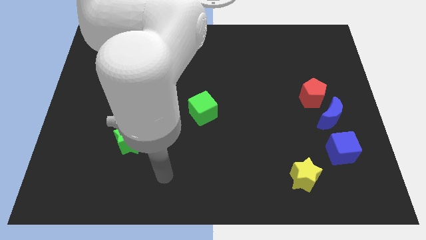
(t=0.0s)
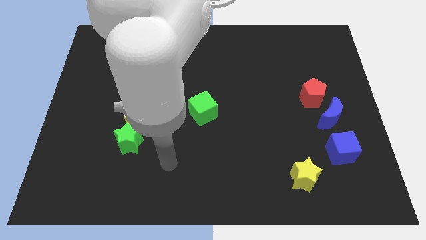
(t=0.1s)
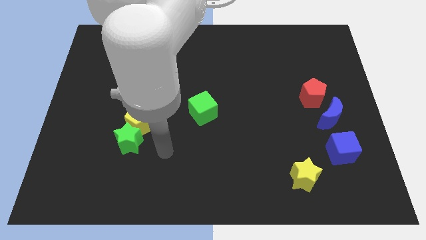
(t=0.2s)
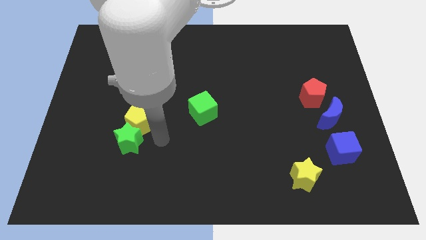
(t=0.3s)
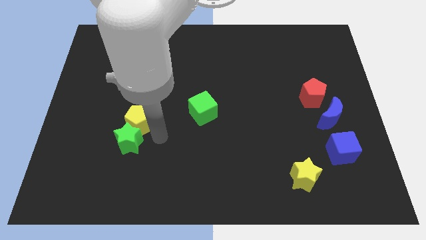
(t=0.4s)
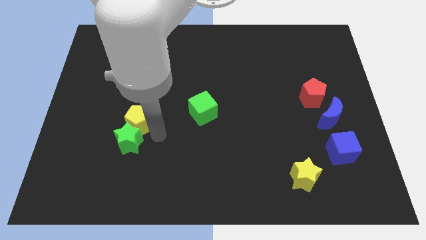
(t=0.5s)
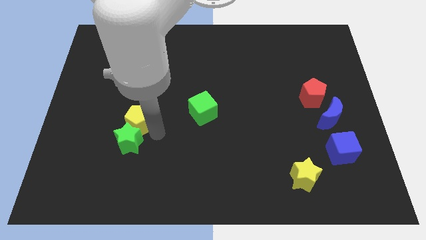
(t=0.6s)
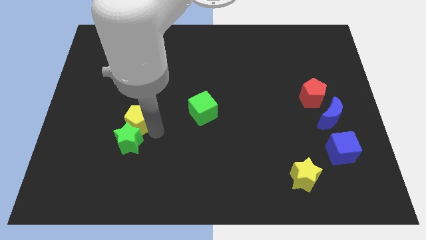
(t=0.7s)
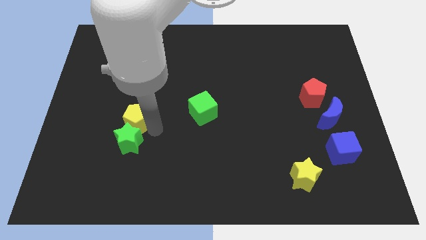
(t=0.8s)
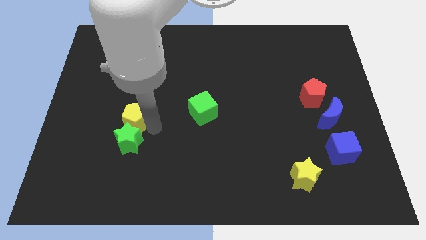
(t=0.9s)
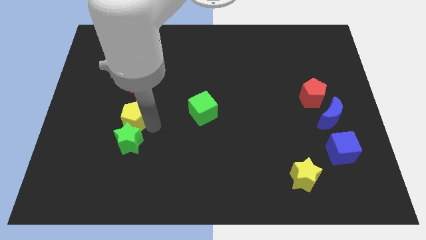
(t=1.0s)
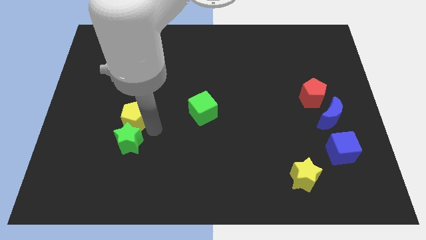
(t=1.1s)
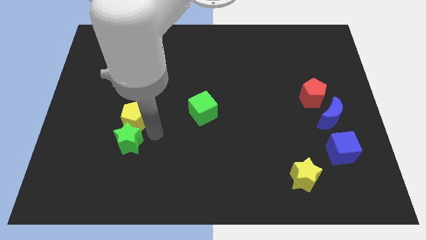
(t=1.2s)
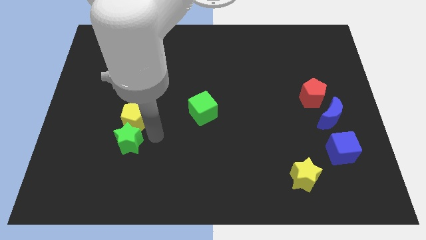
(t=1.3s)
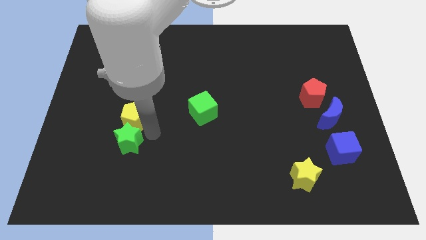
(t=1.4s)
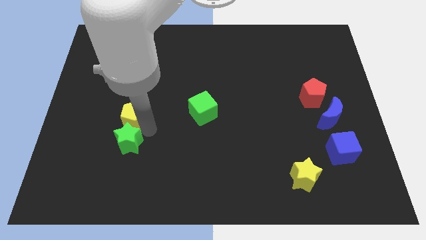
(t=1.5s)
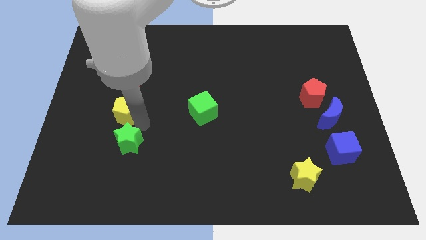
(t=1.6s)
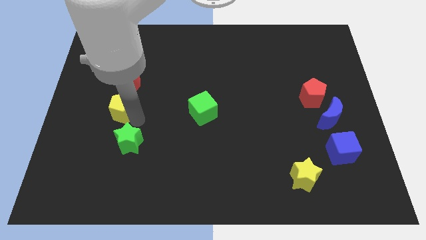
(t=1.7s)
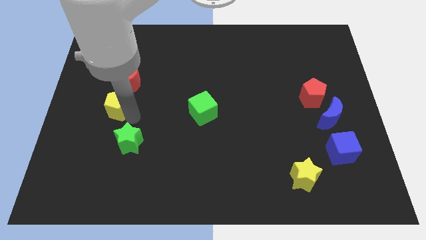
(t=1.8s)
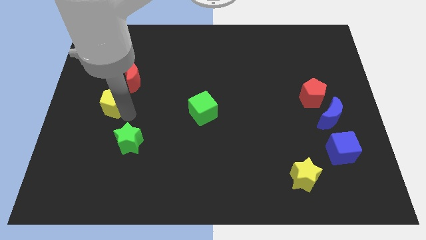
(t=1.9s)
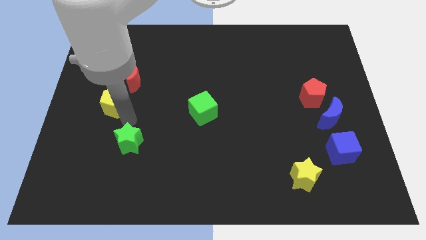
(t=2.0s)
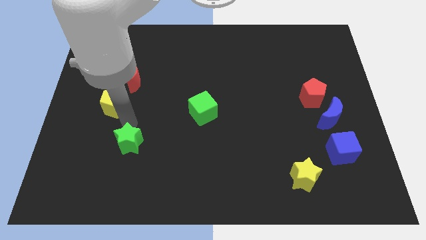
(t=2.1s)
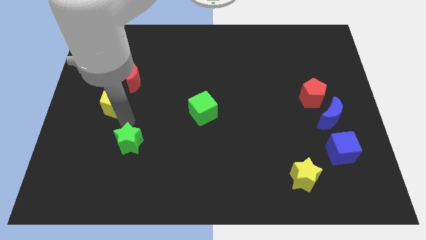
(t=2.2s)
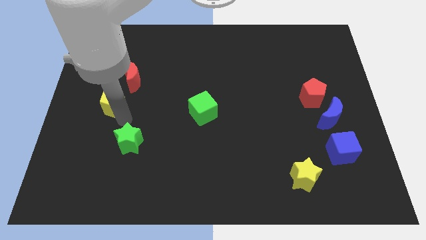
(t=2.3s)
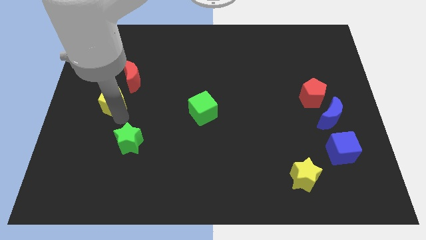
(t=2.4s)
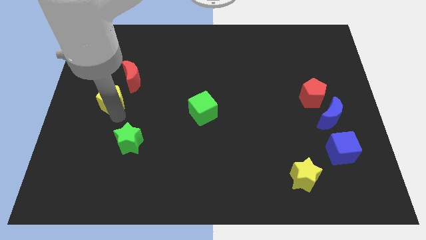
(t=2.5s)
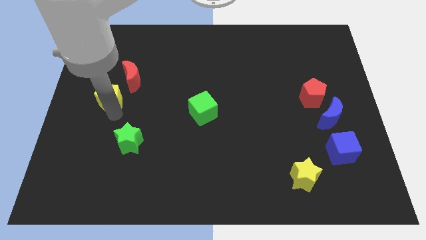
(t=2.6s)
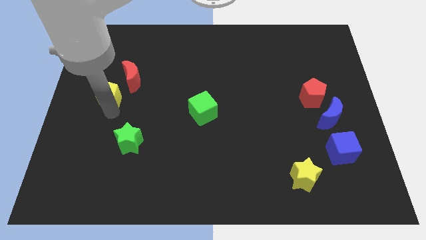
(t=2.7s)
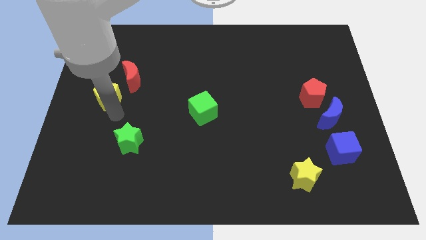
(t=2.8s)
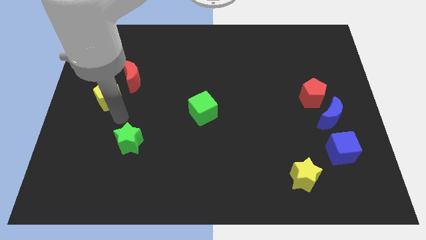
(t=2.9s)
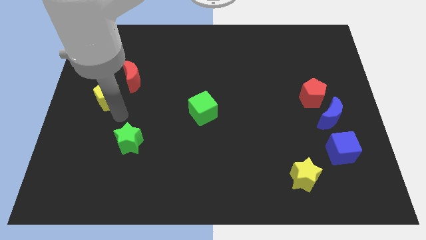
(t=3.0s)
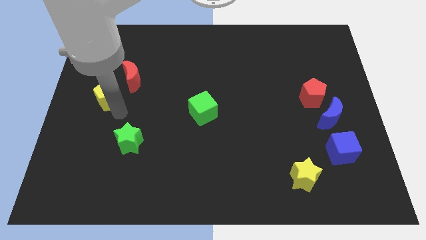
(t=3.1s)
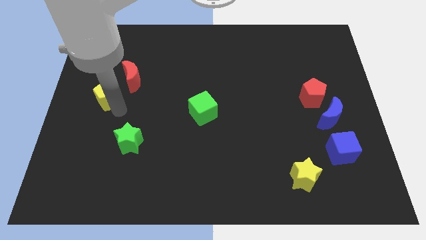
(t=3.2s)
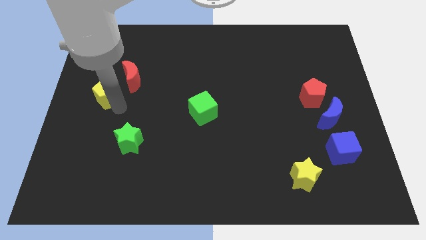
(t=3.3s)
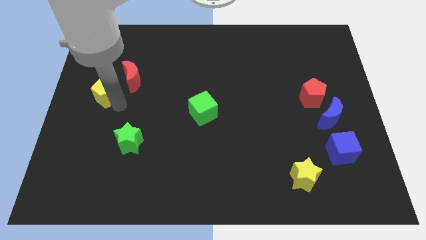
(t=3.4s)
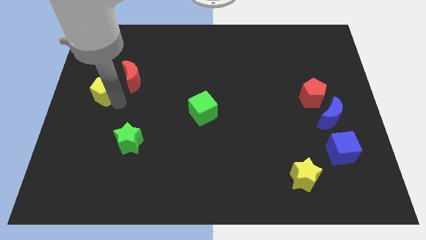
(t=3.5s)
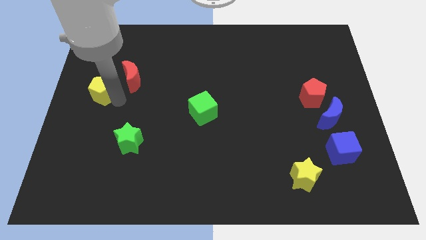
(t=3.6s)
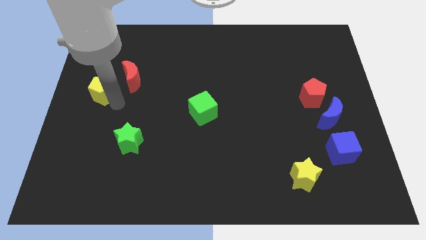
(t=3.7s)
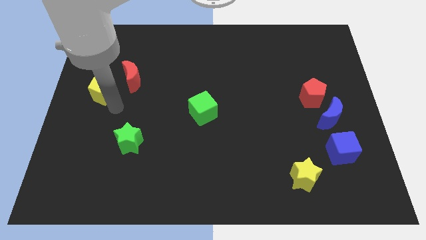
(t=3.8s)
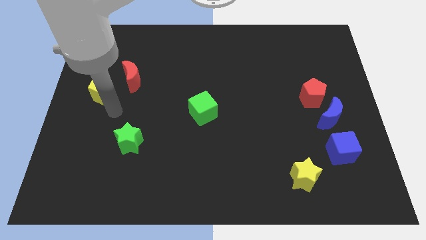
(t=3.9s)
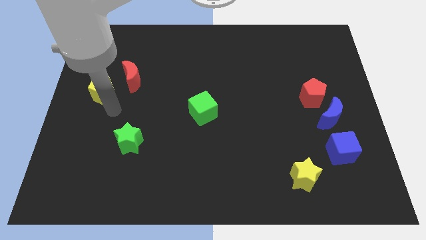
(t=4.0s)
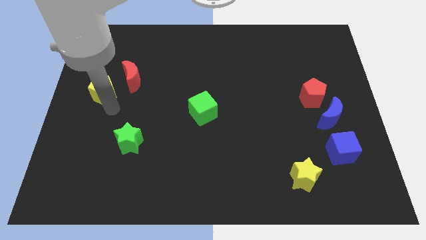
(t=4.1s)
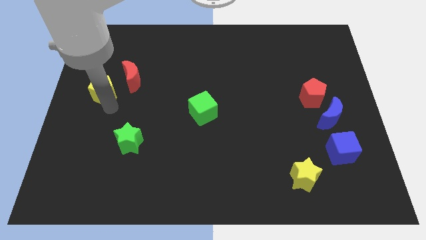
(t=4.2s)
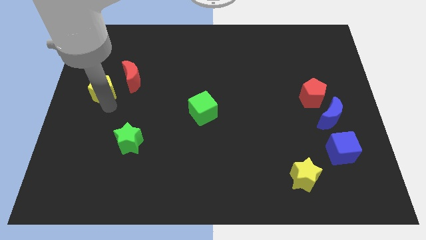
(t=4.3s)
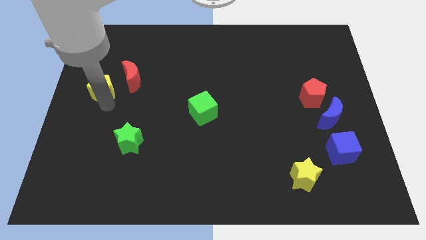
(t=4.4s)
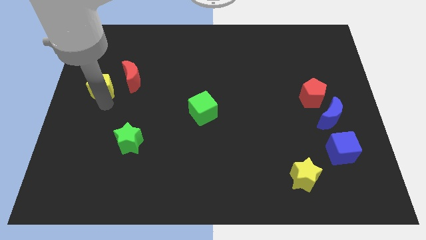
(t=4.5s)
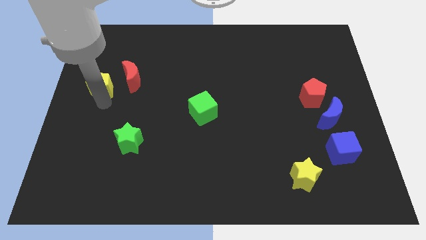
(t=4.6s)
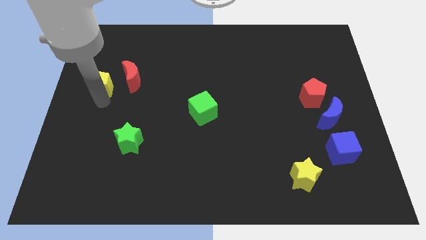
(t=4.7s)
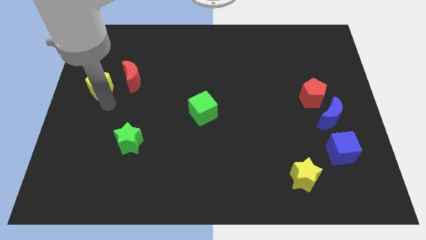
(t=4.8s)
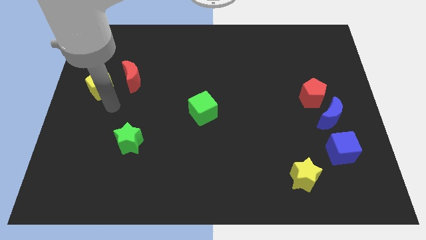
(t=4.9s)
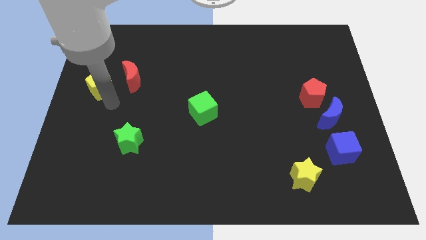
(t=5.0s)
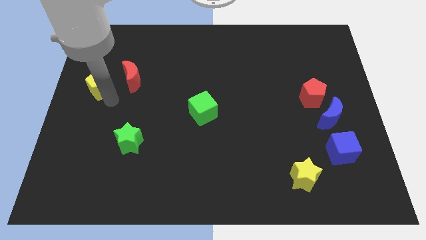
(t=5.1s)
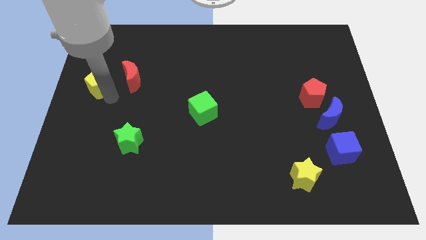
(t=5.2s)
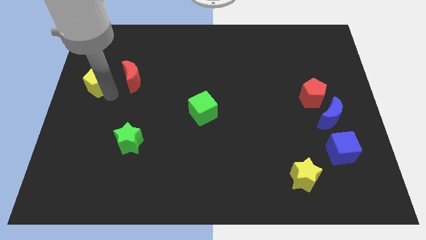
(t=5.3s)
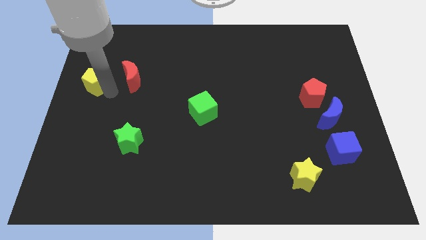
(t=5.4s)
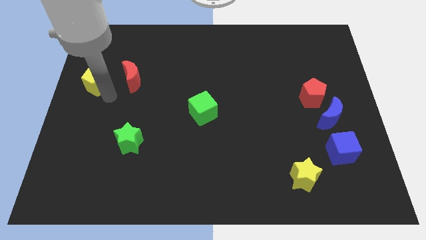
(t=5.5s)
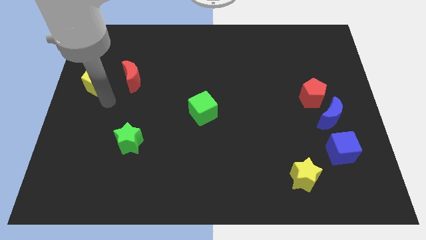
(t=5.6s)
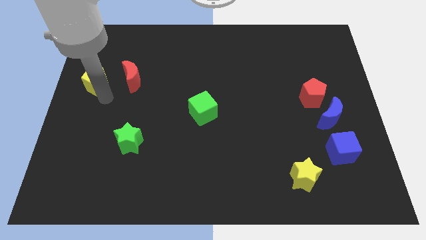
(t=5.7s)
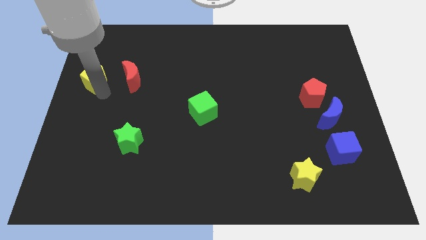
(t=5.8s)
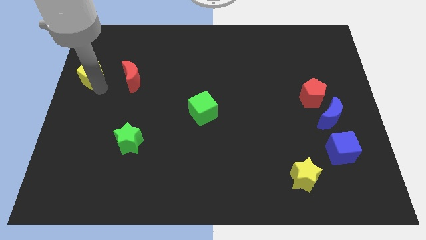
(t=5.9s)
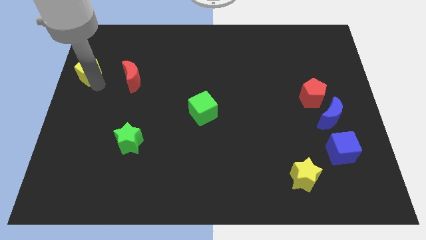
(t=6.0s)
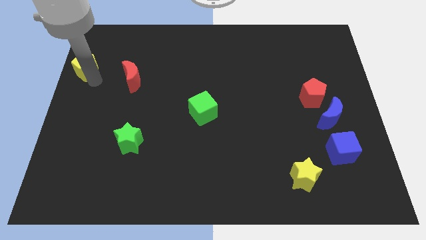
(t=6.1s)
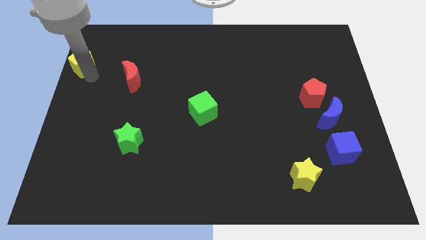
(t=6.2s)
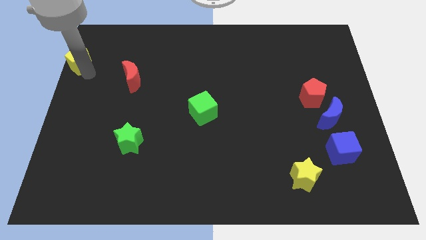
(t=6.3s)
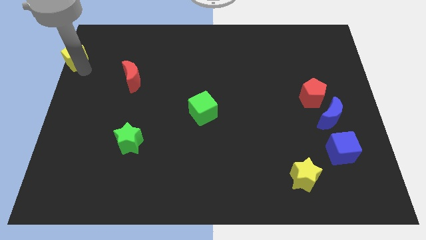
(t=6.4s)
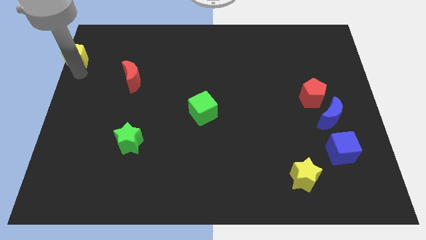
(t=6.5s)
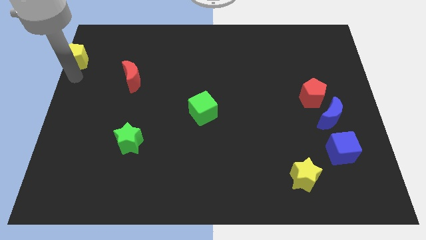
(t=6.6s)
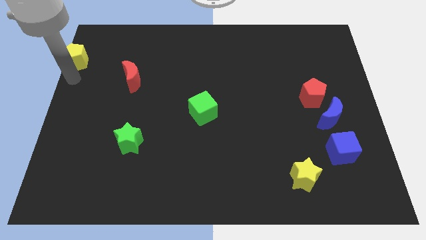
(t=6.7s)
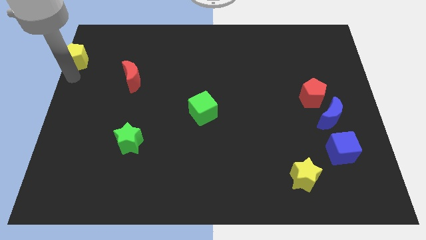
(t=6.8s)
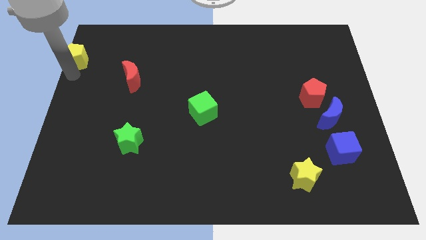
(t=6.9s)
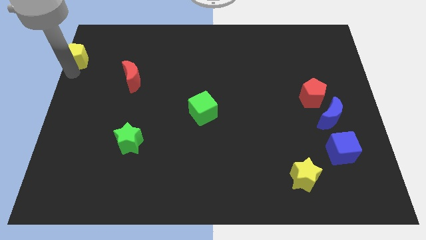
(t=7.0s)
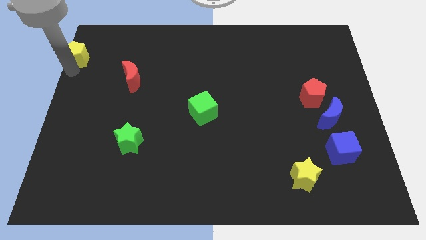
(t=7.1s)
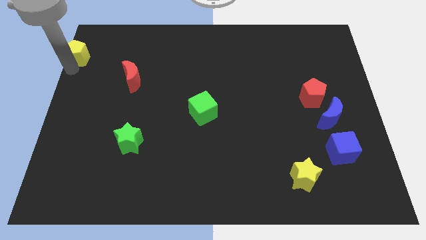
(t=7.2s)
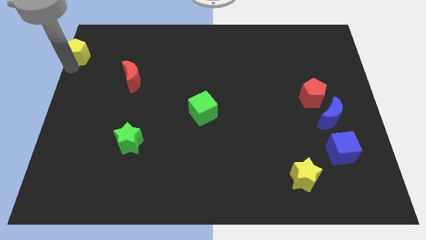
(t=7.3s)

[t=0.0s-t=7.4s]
push the yellow pentagon to the upper left corner
